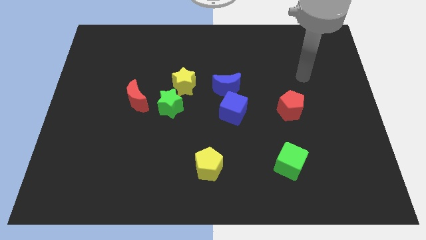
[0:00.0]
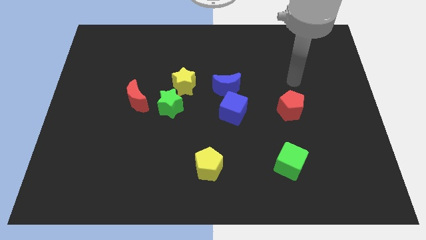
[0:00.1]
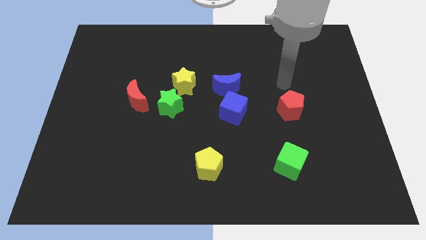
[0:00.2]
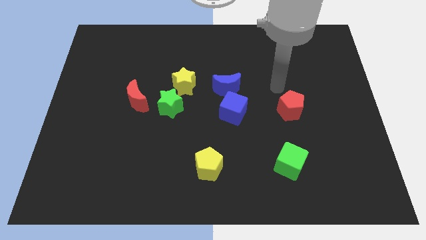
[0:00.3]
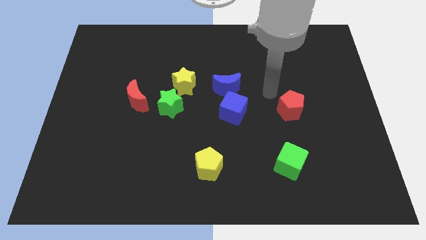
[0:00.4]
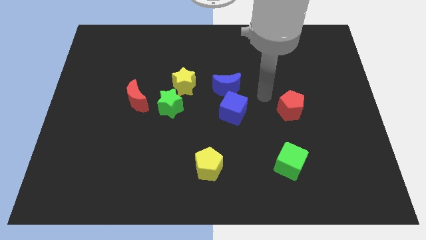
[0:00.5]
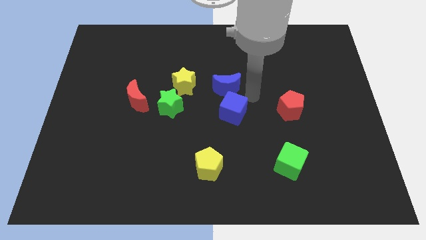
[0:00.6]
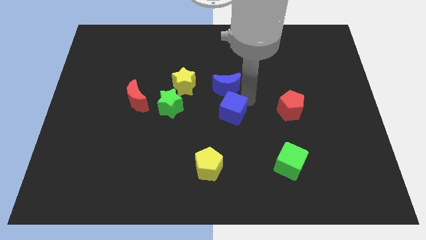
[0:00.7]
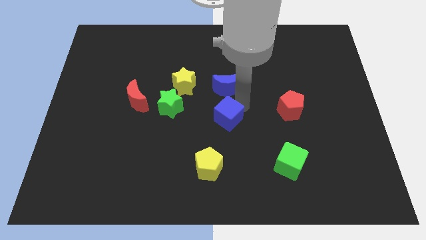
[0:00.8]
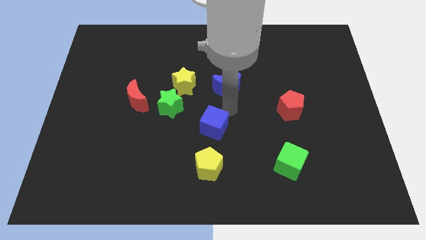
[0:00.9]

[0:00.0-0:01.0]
separate the blue moon from the blue cube

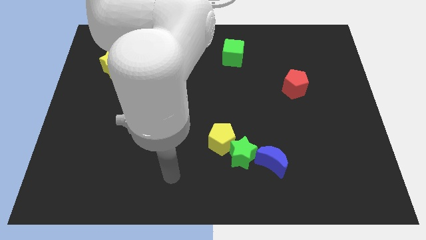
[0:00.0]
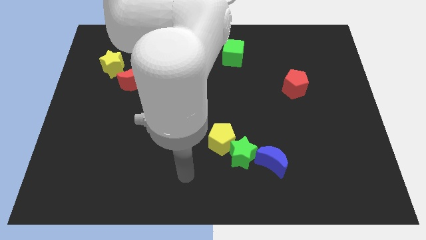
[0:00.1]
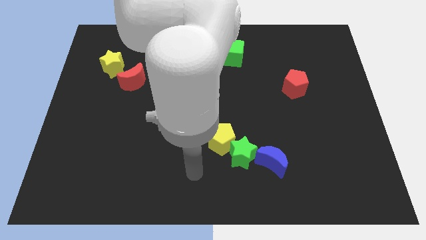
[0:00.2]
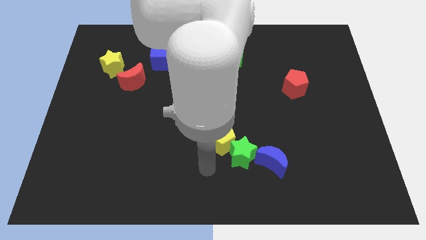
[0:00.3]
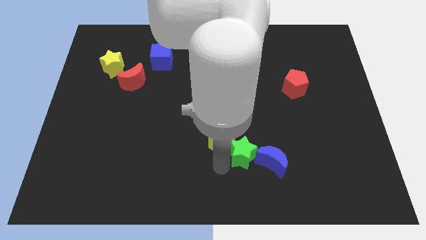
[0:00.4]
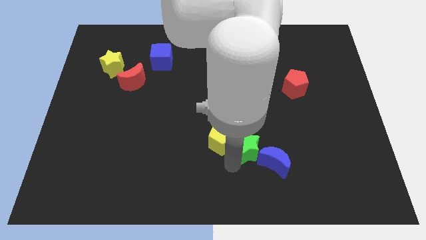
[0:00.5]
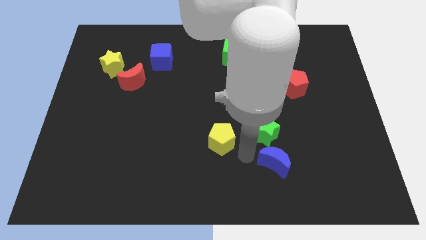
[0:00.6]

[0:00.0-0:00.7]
move the yellow pentagon away from the green star

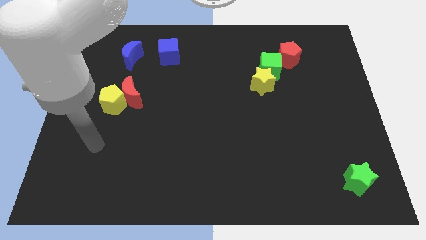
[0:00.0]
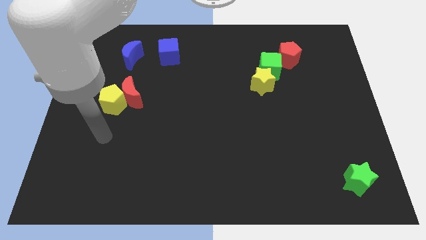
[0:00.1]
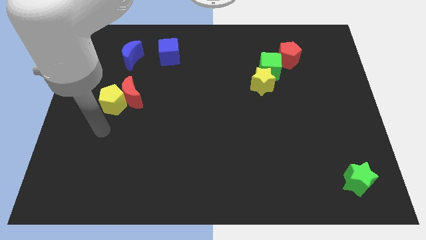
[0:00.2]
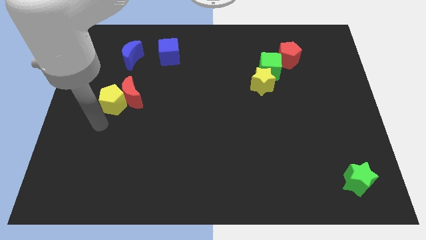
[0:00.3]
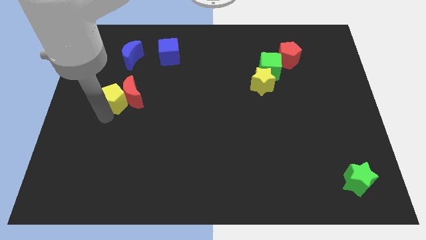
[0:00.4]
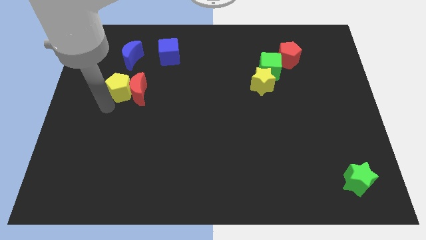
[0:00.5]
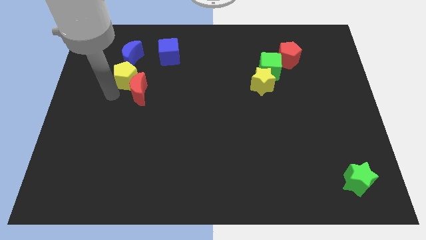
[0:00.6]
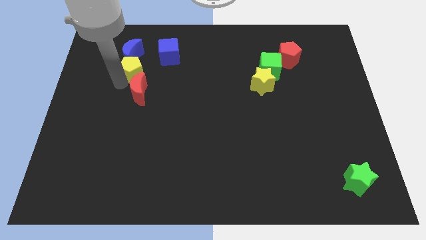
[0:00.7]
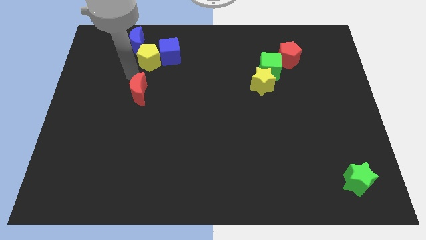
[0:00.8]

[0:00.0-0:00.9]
separate the red moon from the yellow pentagon

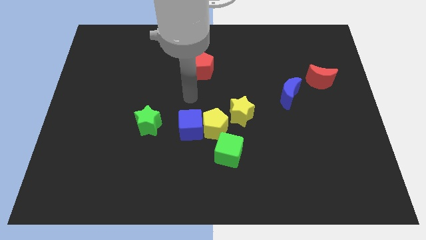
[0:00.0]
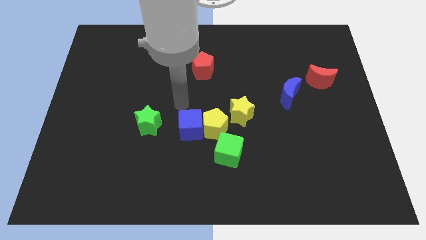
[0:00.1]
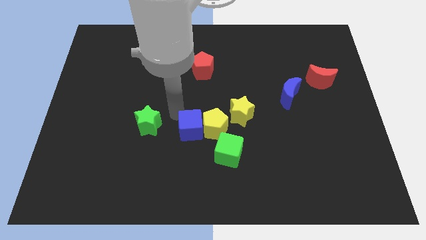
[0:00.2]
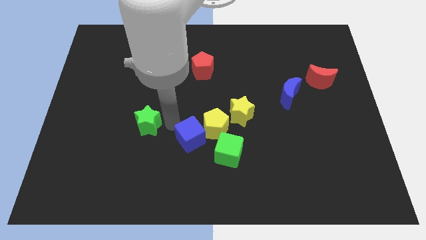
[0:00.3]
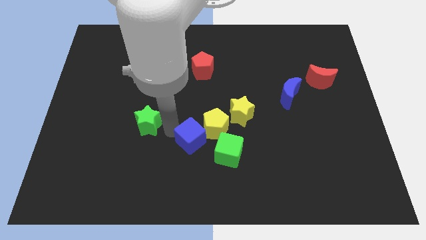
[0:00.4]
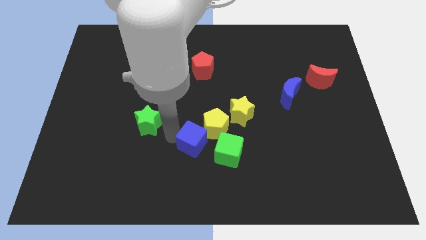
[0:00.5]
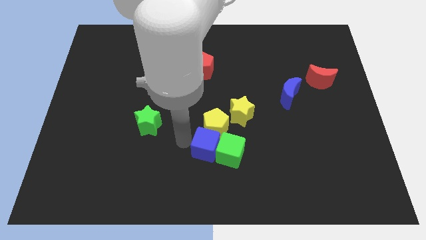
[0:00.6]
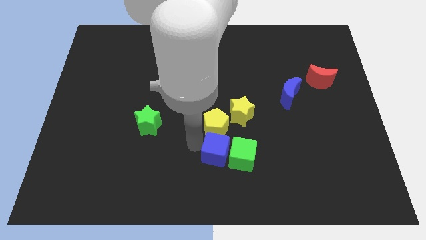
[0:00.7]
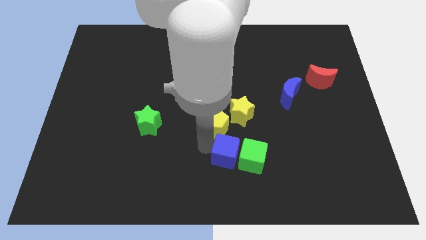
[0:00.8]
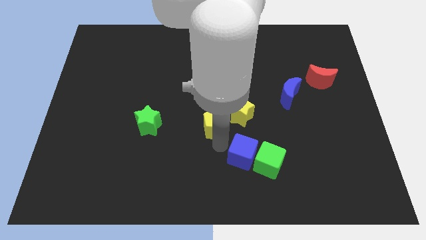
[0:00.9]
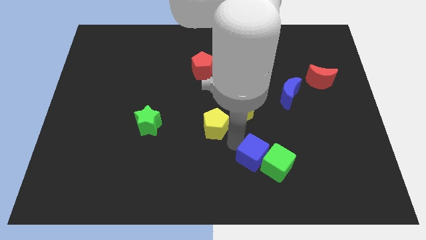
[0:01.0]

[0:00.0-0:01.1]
move the yellow pentagon away from the group

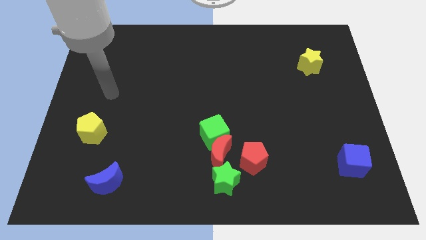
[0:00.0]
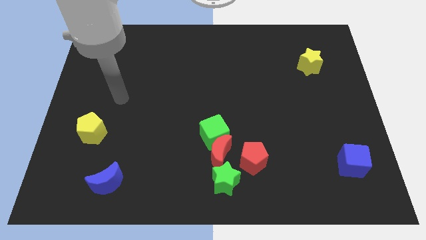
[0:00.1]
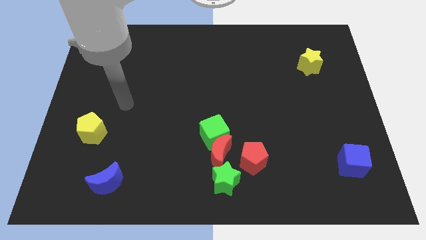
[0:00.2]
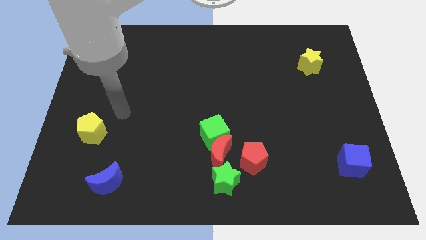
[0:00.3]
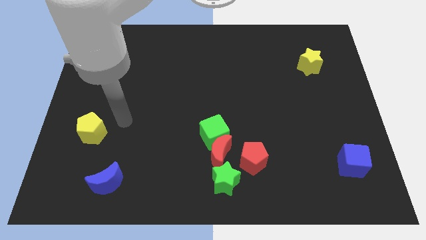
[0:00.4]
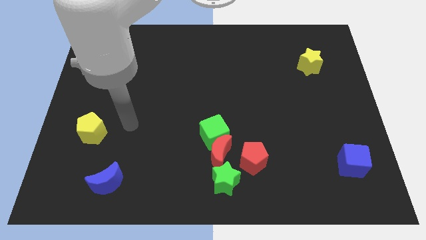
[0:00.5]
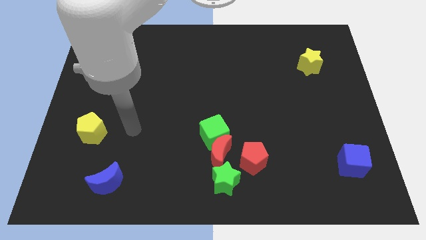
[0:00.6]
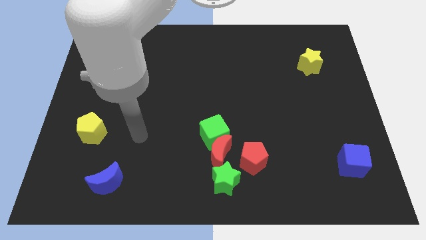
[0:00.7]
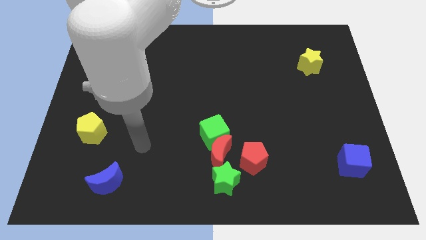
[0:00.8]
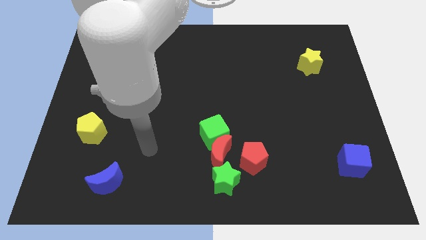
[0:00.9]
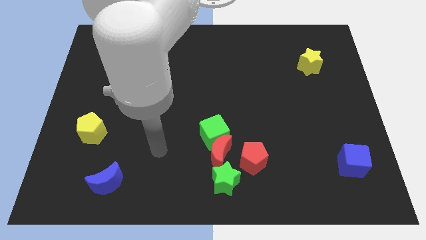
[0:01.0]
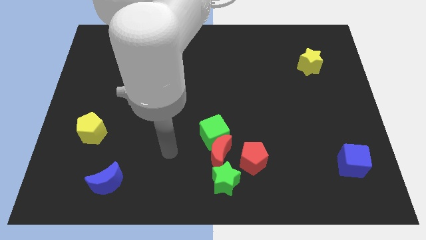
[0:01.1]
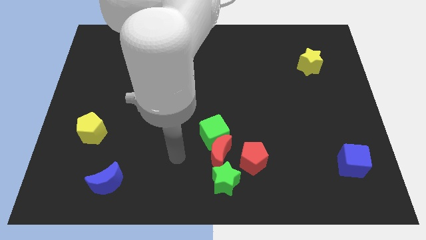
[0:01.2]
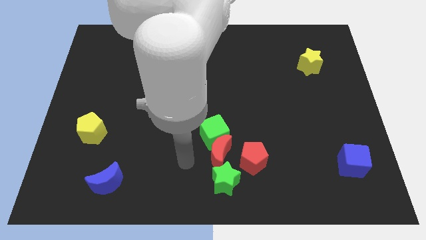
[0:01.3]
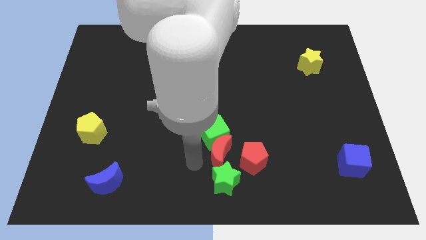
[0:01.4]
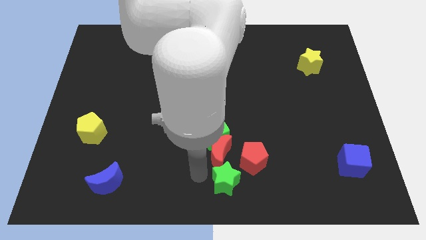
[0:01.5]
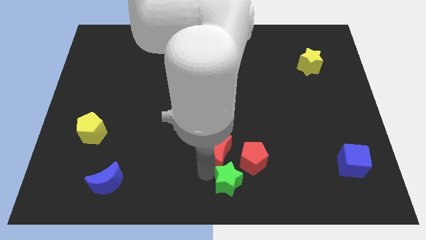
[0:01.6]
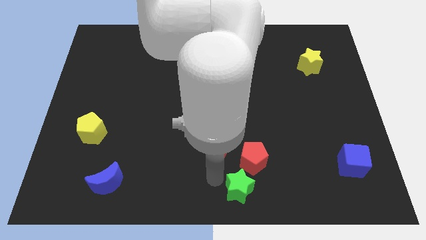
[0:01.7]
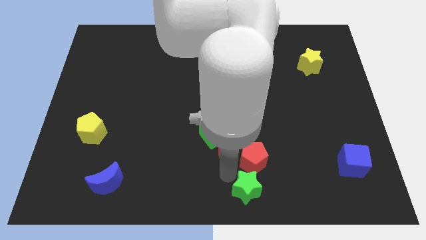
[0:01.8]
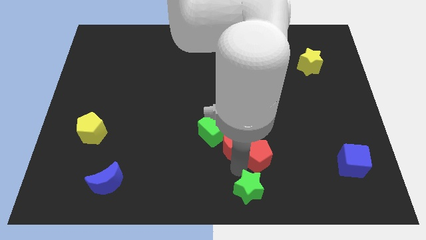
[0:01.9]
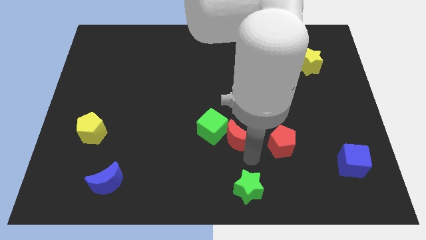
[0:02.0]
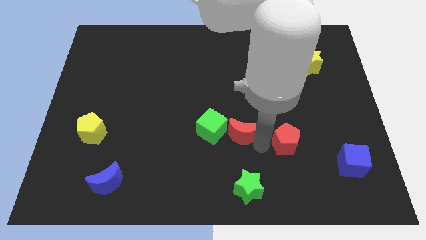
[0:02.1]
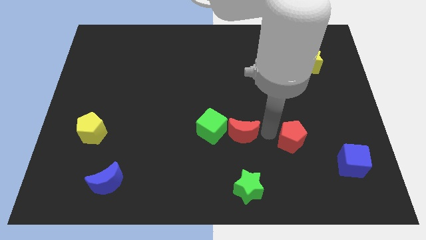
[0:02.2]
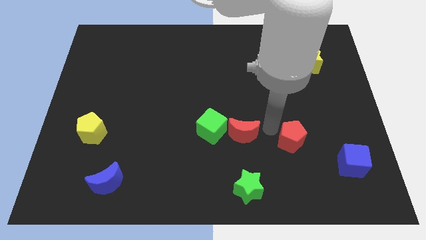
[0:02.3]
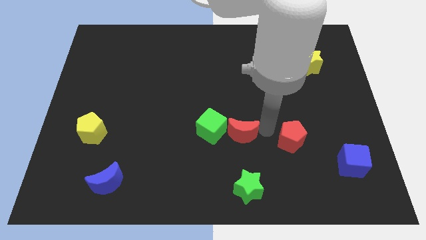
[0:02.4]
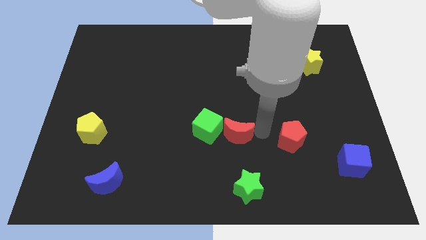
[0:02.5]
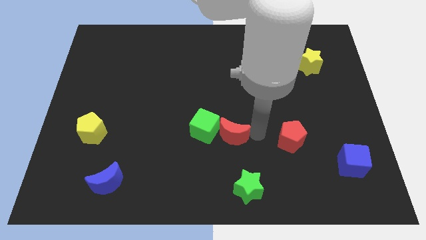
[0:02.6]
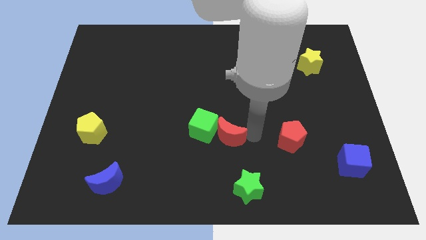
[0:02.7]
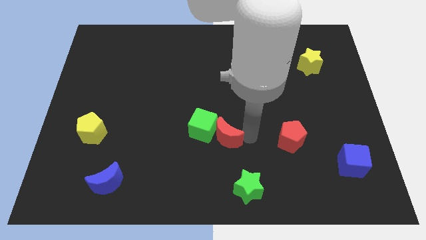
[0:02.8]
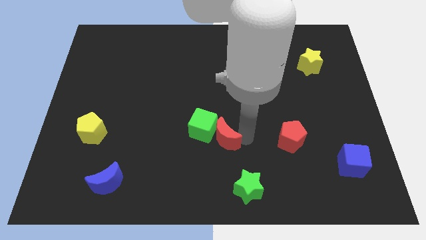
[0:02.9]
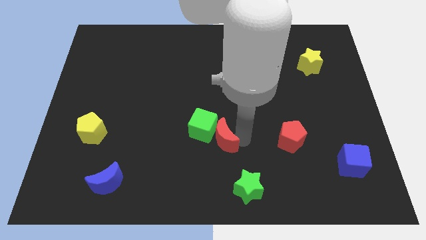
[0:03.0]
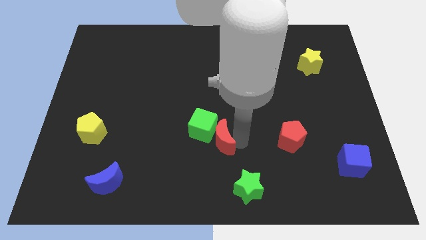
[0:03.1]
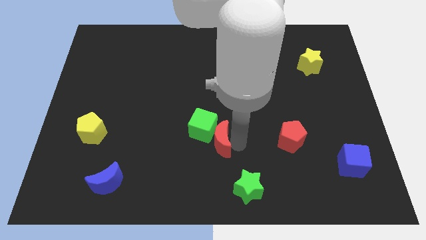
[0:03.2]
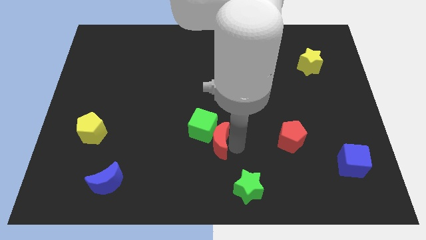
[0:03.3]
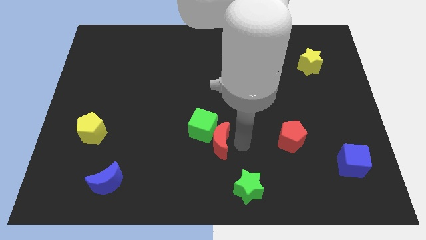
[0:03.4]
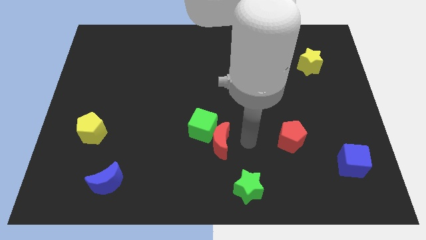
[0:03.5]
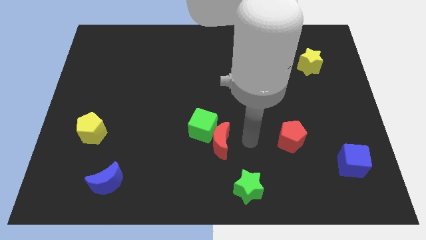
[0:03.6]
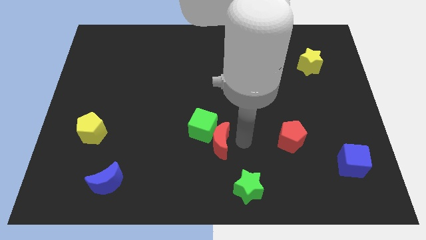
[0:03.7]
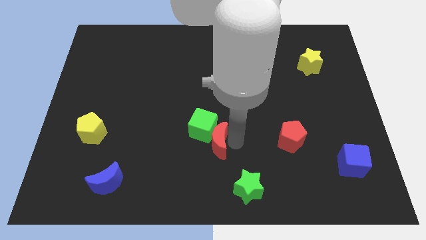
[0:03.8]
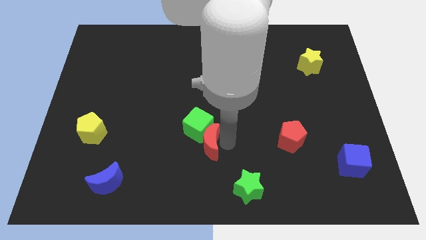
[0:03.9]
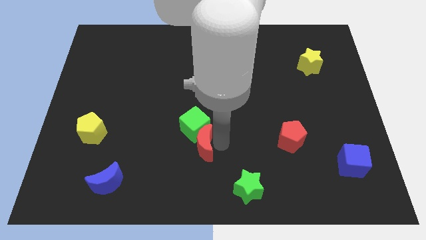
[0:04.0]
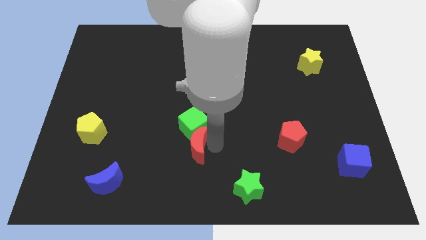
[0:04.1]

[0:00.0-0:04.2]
move the red moon away from the green cube, green star, and red pentagon

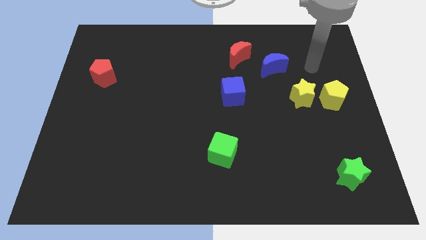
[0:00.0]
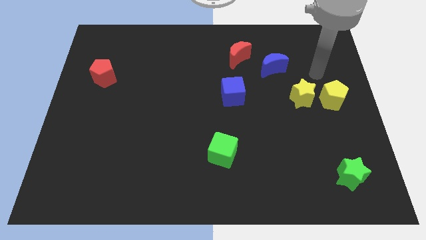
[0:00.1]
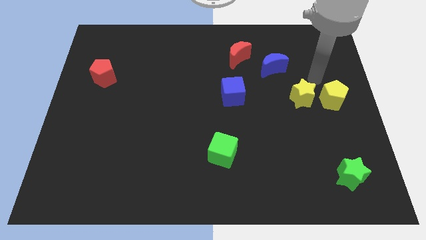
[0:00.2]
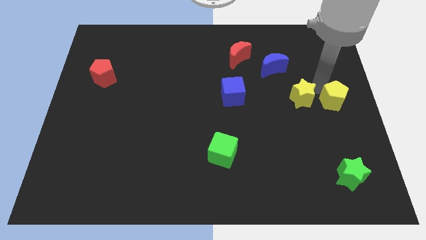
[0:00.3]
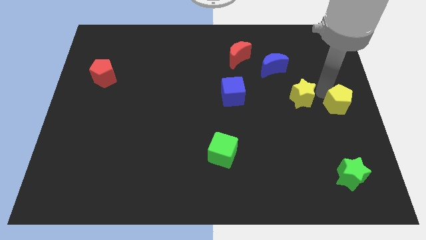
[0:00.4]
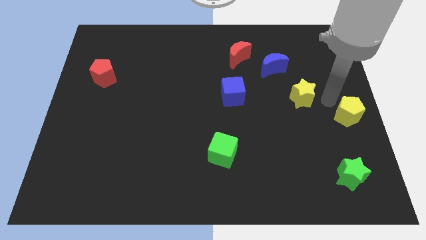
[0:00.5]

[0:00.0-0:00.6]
pull the yellow star apart from the yellow pentagon

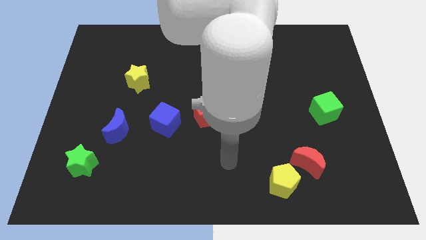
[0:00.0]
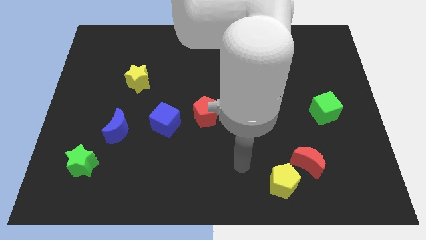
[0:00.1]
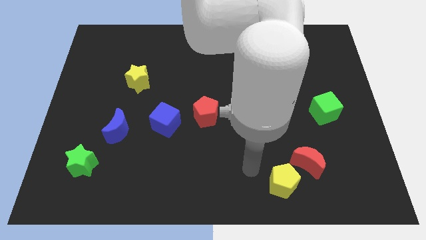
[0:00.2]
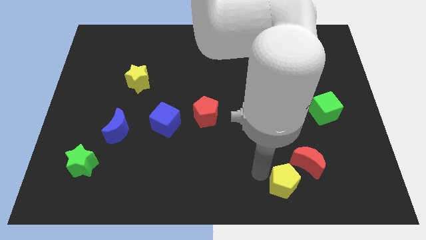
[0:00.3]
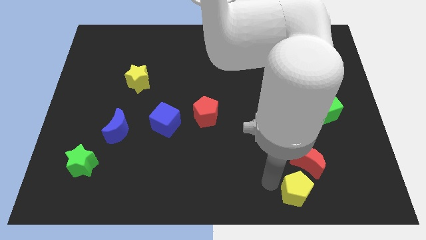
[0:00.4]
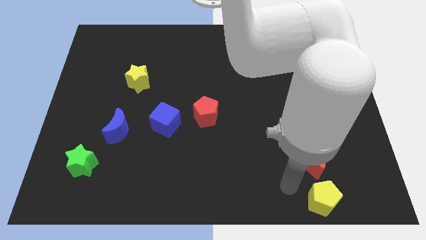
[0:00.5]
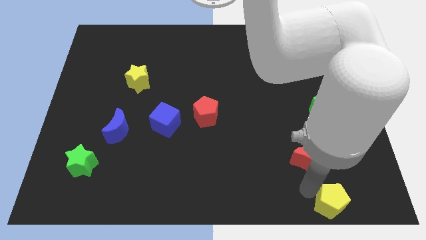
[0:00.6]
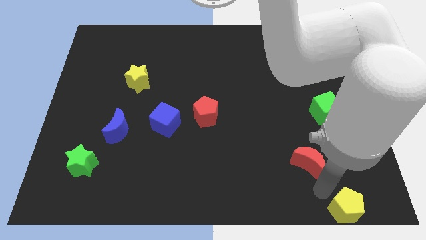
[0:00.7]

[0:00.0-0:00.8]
pull the red moon apart from the yellow pentagon

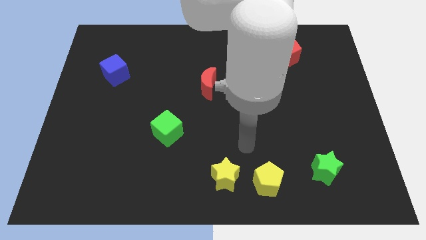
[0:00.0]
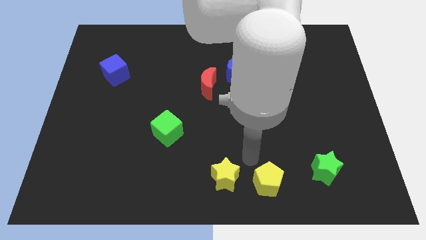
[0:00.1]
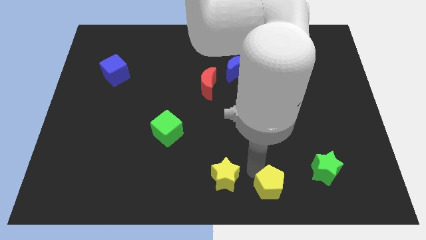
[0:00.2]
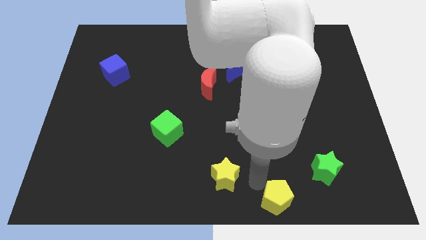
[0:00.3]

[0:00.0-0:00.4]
separate the yellow star from the yellow pentagon
